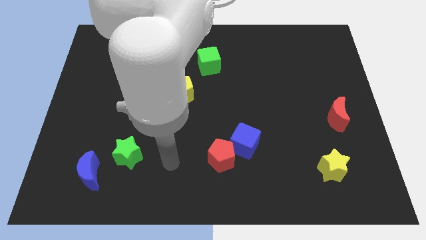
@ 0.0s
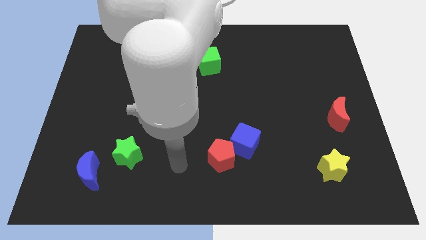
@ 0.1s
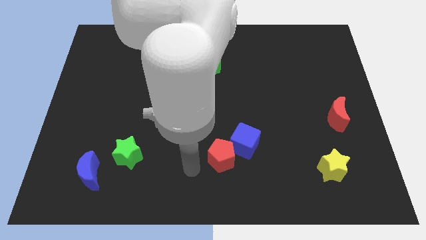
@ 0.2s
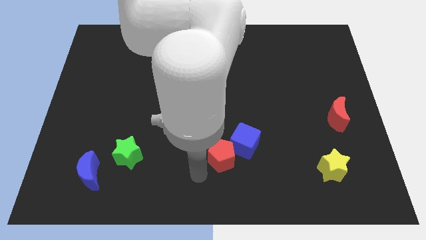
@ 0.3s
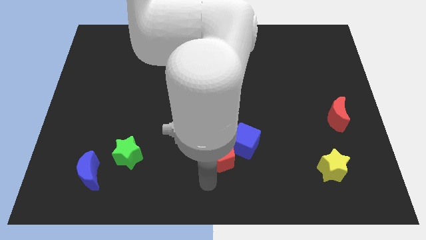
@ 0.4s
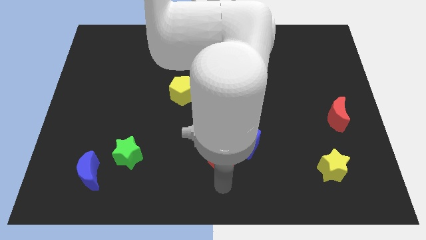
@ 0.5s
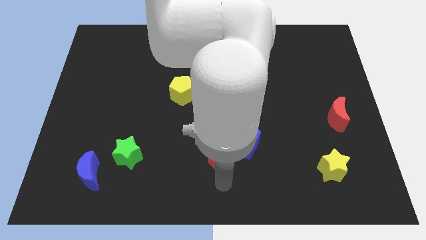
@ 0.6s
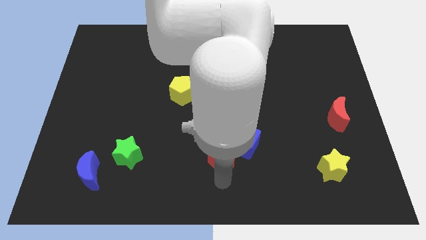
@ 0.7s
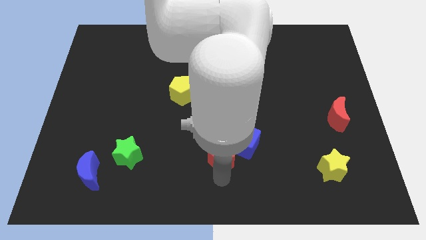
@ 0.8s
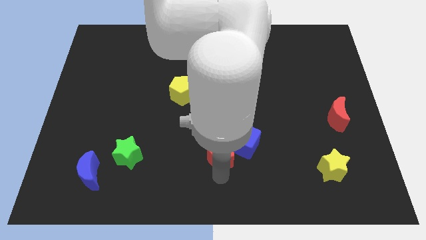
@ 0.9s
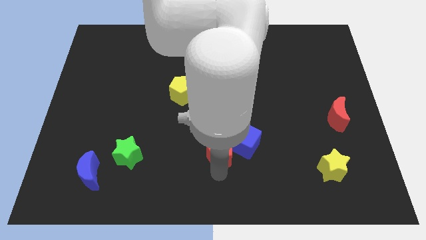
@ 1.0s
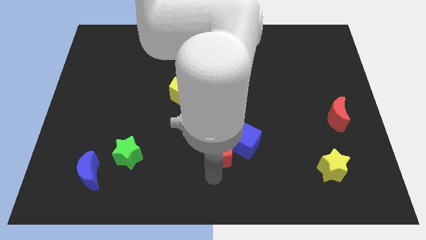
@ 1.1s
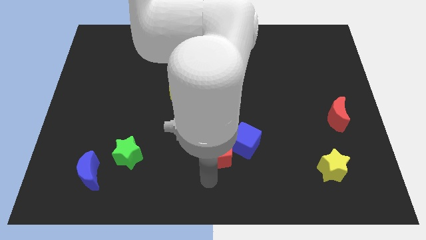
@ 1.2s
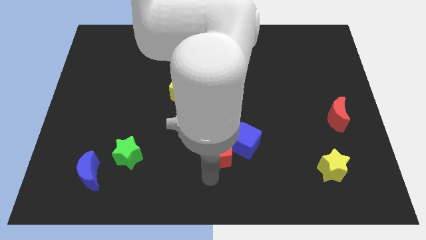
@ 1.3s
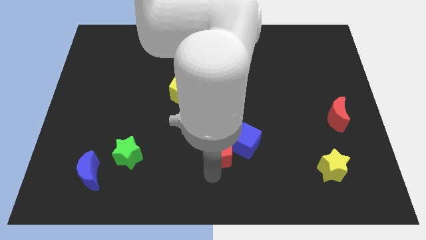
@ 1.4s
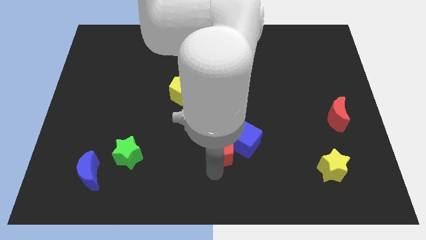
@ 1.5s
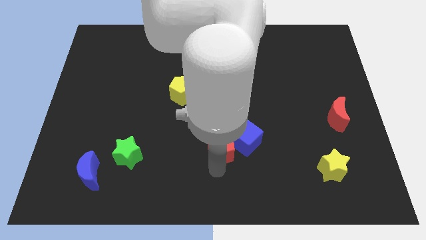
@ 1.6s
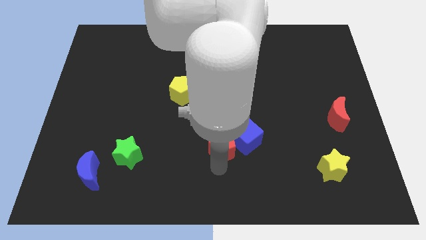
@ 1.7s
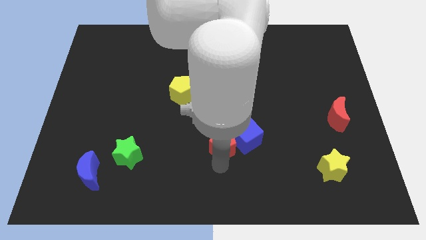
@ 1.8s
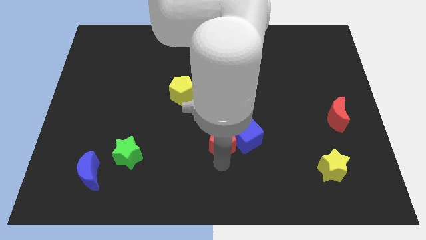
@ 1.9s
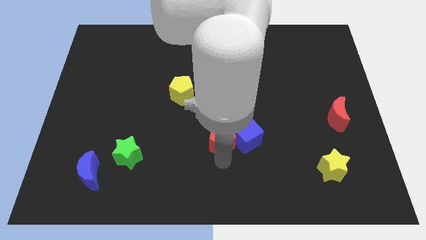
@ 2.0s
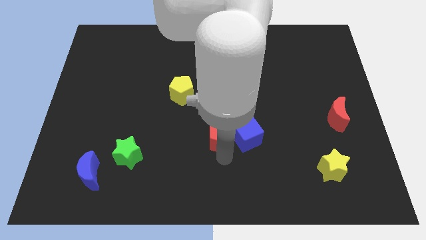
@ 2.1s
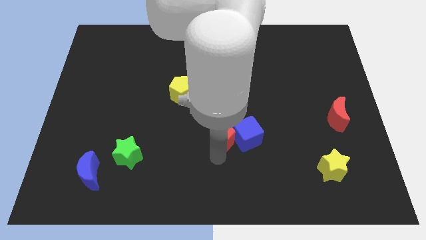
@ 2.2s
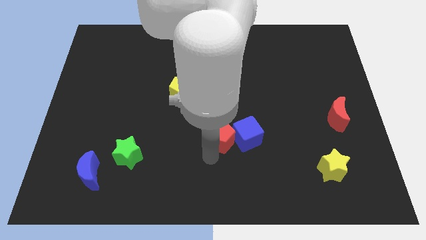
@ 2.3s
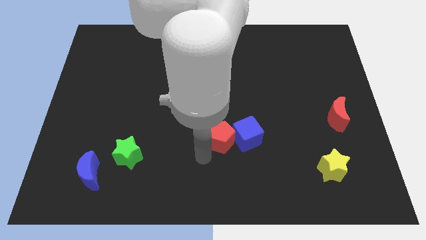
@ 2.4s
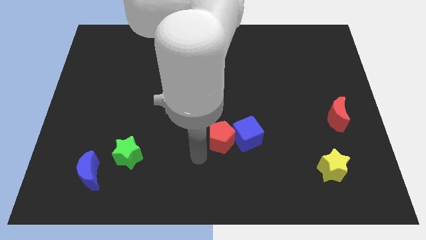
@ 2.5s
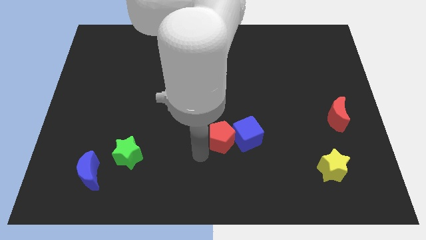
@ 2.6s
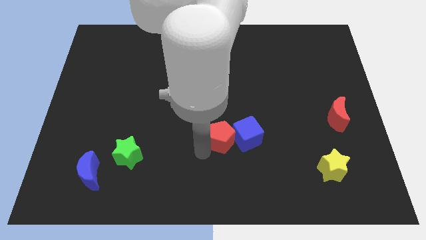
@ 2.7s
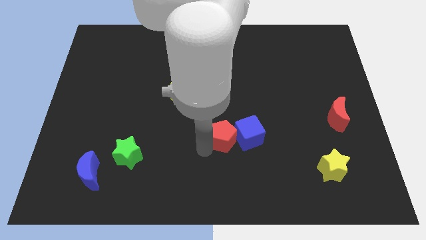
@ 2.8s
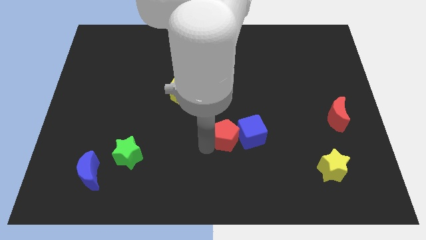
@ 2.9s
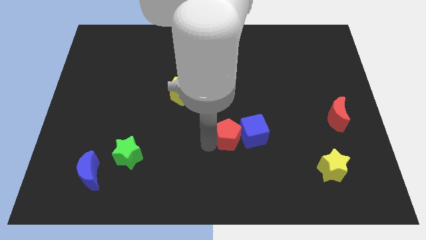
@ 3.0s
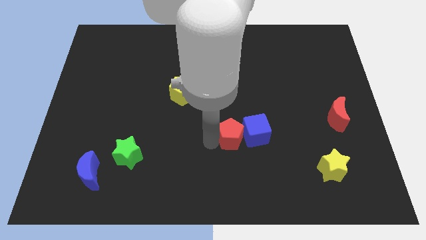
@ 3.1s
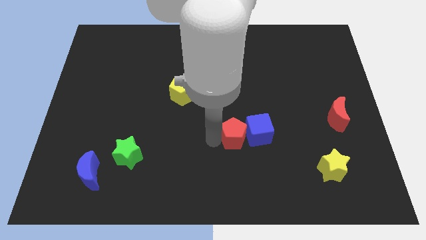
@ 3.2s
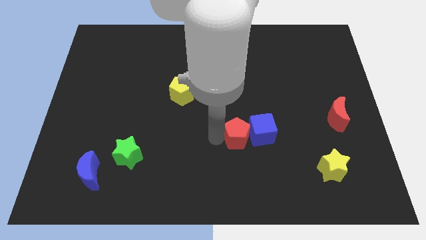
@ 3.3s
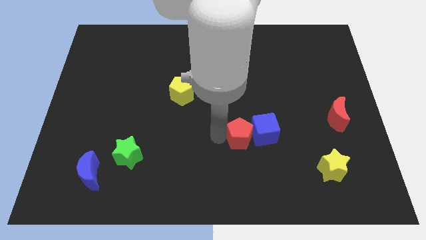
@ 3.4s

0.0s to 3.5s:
move the red pentagon up and then right a little bit

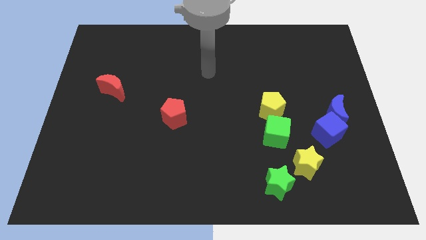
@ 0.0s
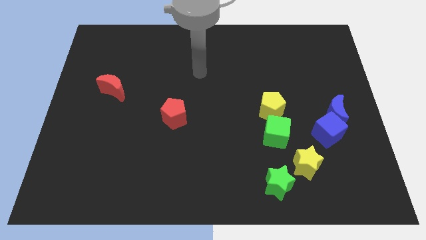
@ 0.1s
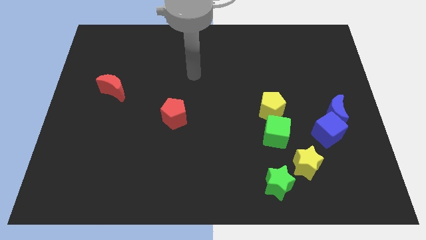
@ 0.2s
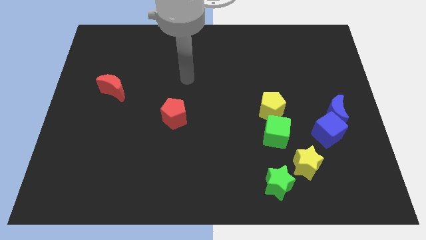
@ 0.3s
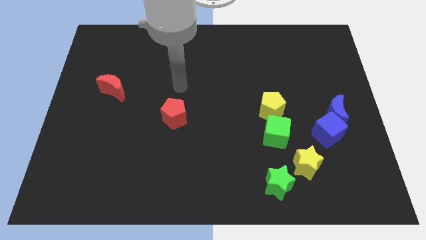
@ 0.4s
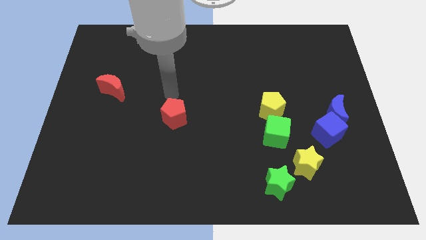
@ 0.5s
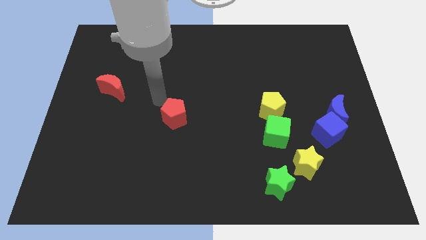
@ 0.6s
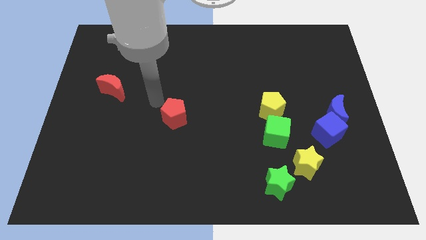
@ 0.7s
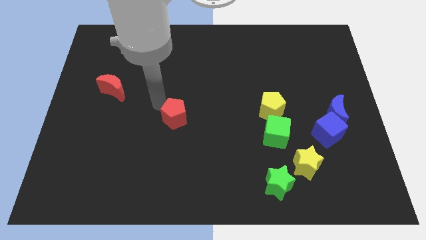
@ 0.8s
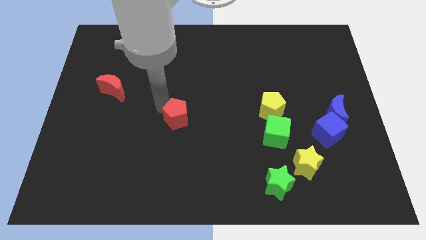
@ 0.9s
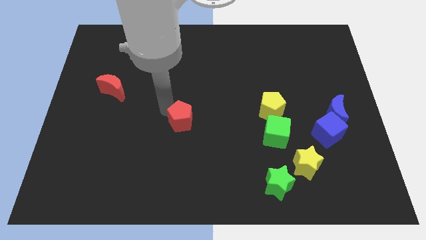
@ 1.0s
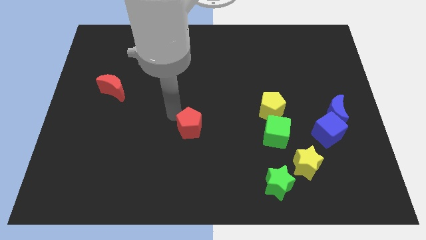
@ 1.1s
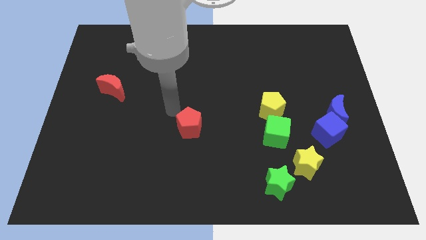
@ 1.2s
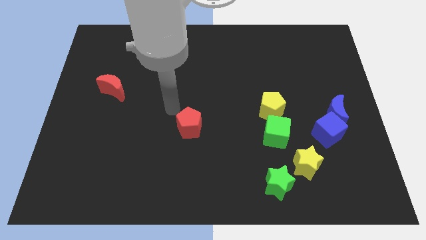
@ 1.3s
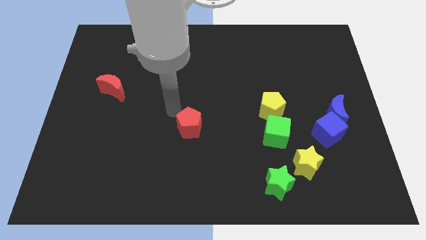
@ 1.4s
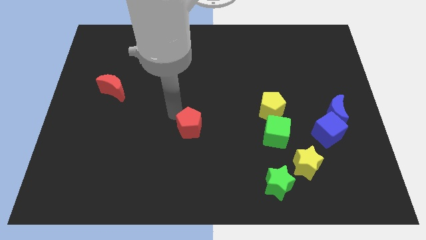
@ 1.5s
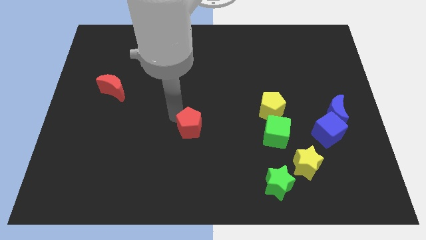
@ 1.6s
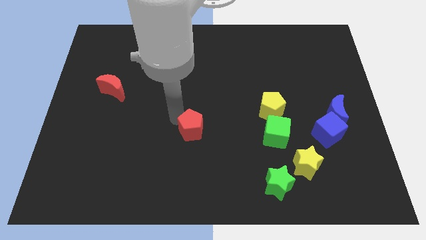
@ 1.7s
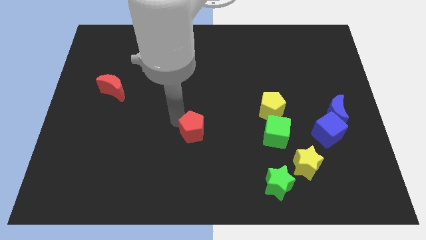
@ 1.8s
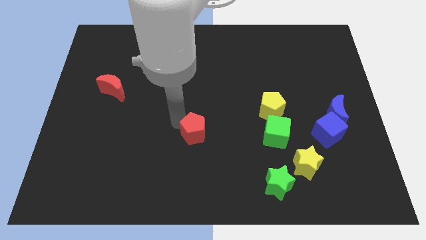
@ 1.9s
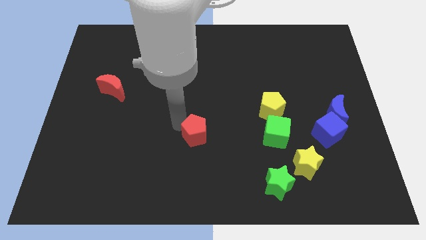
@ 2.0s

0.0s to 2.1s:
slightly push the red pentagon down and right diagonally

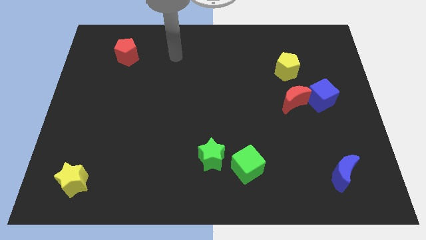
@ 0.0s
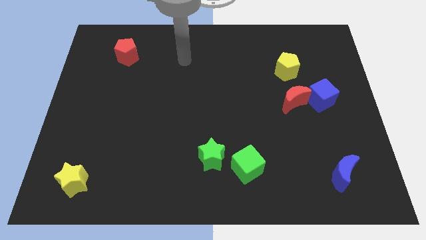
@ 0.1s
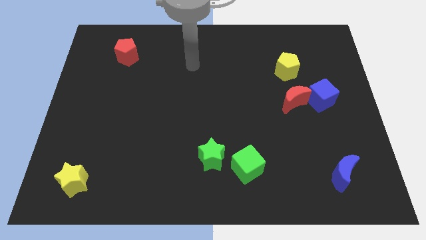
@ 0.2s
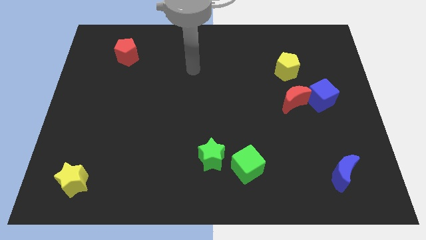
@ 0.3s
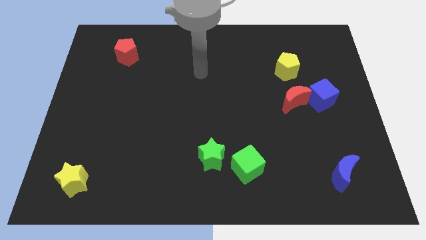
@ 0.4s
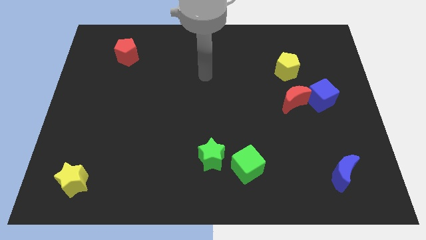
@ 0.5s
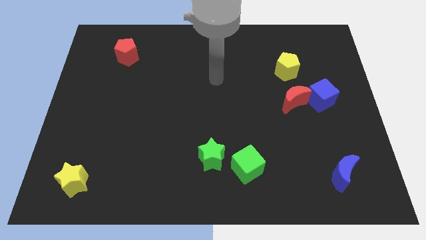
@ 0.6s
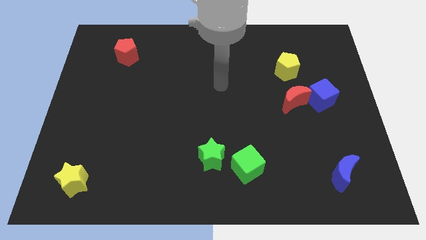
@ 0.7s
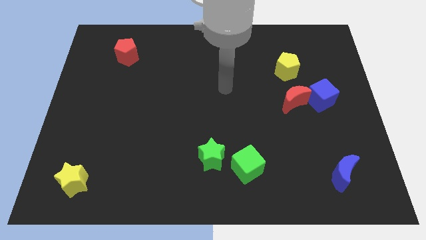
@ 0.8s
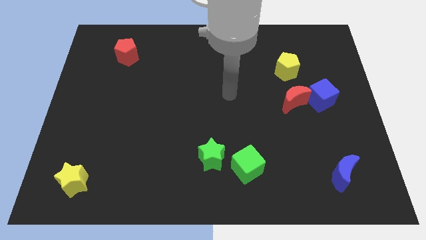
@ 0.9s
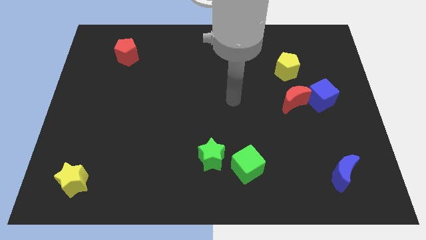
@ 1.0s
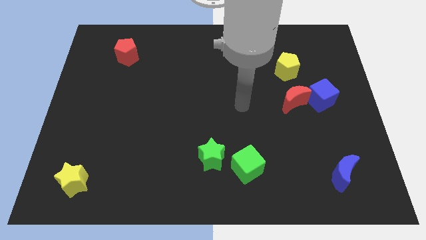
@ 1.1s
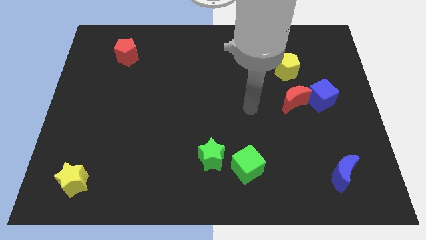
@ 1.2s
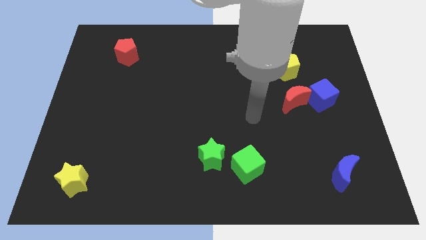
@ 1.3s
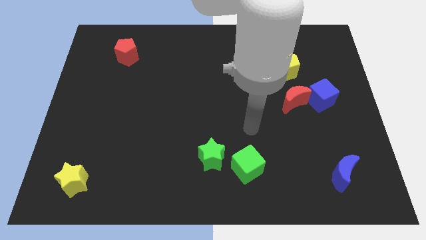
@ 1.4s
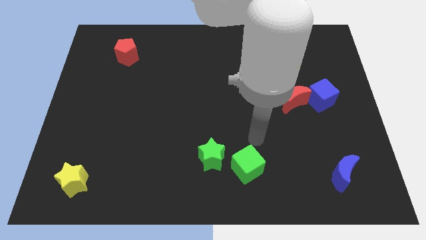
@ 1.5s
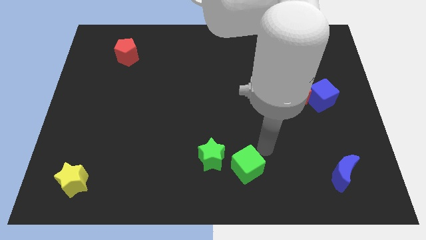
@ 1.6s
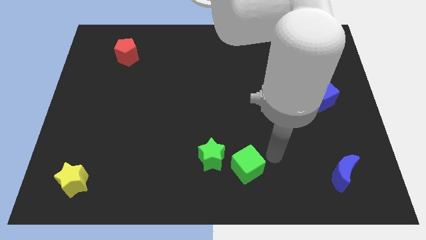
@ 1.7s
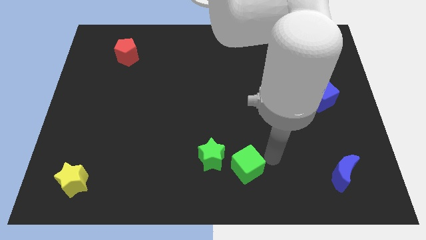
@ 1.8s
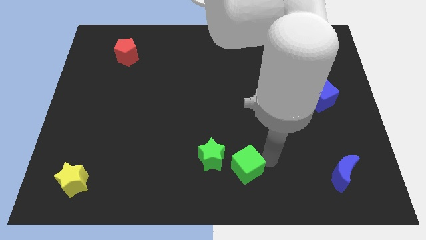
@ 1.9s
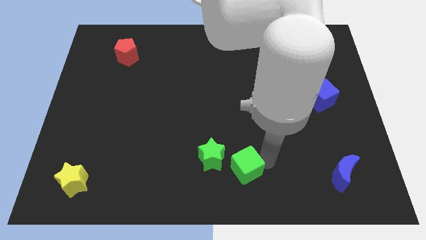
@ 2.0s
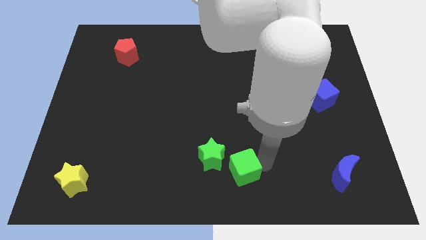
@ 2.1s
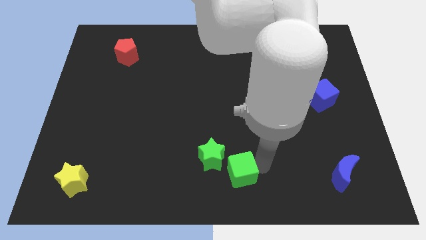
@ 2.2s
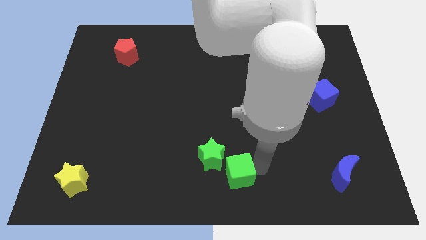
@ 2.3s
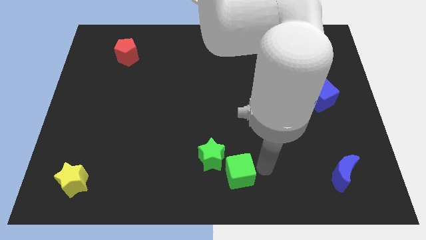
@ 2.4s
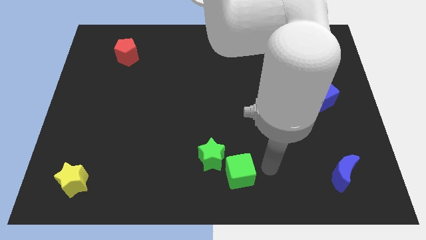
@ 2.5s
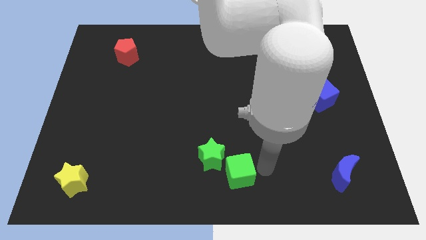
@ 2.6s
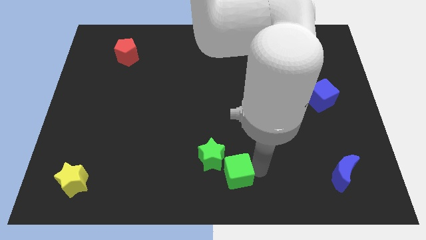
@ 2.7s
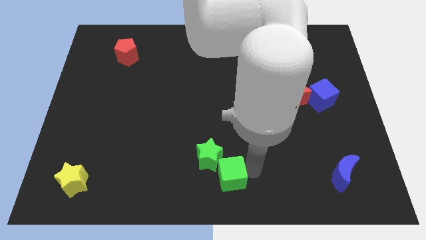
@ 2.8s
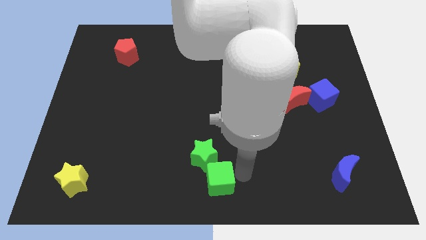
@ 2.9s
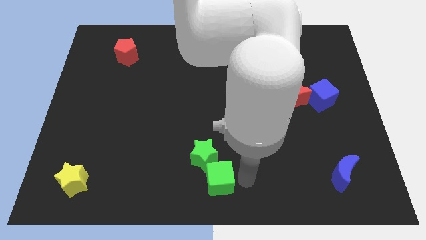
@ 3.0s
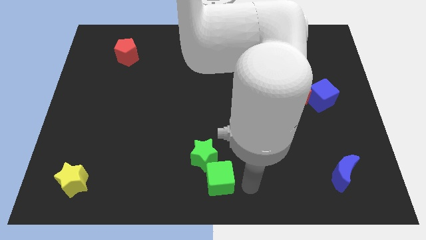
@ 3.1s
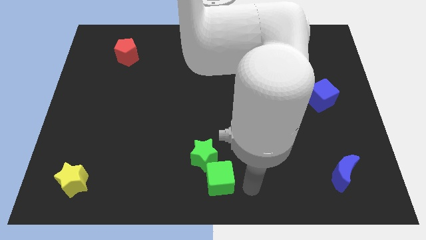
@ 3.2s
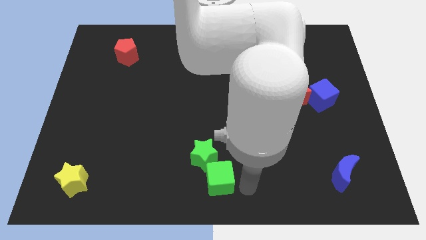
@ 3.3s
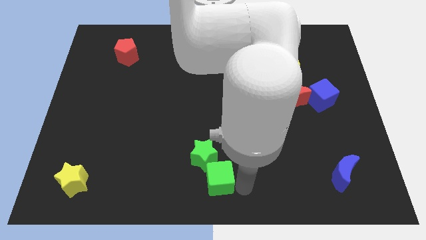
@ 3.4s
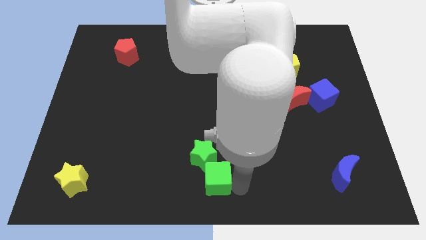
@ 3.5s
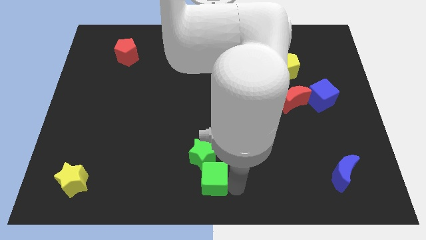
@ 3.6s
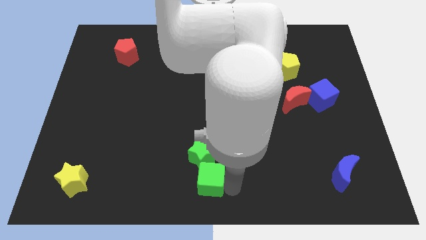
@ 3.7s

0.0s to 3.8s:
slide the green cube left somewhat
